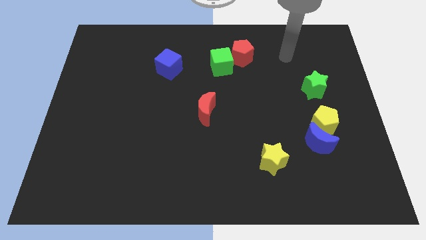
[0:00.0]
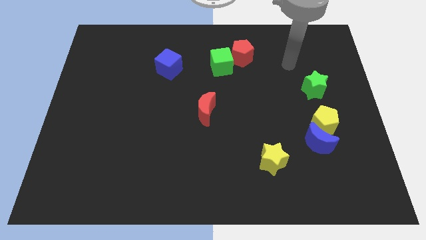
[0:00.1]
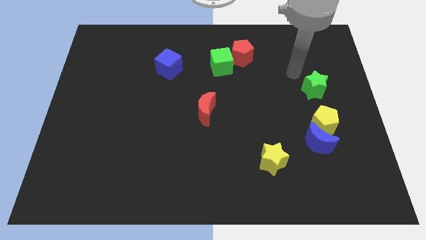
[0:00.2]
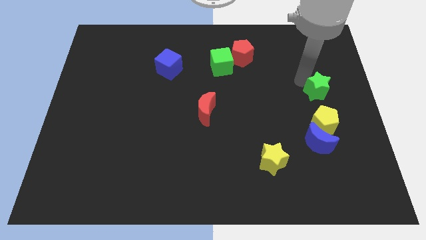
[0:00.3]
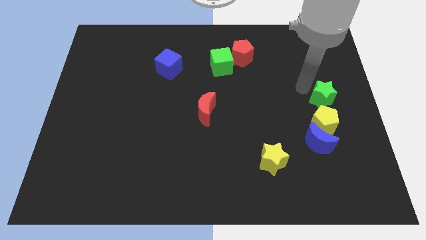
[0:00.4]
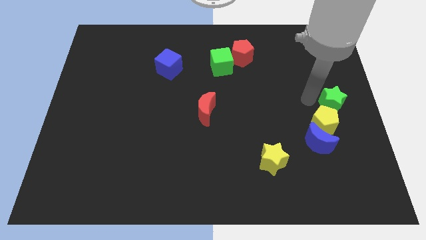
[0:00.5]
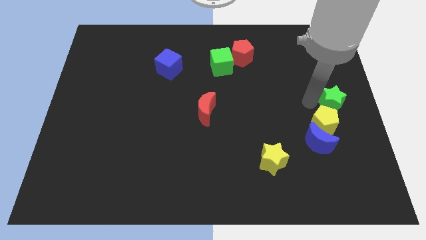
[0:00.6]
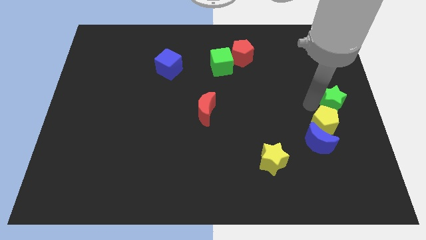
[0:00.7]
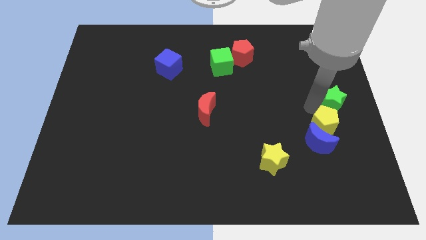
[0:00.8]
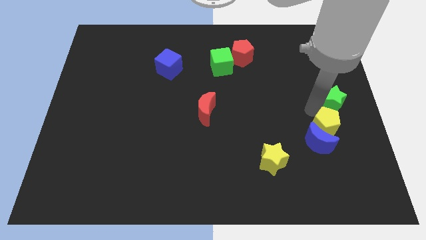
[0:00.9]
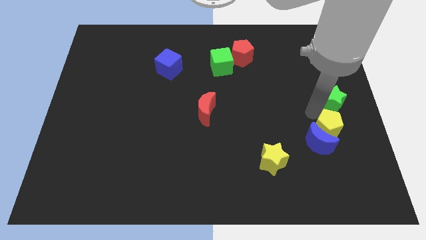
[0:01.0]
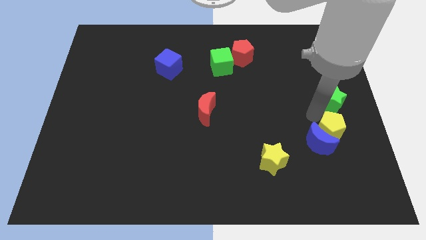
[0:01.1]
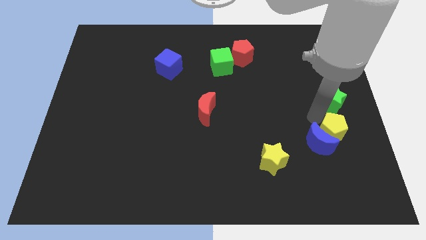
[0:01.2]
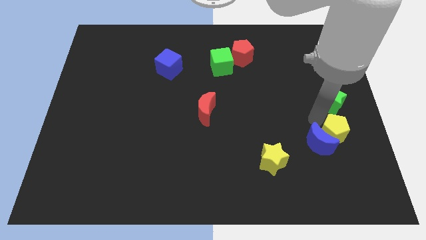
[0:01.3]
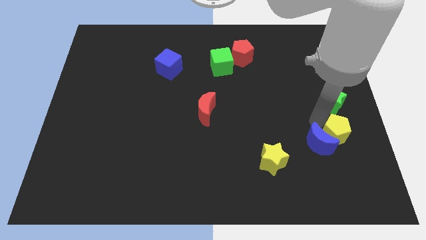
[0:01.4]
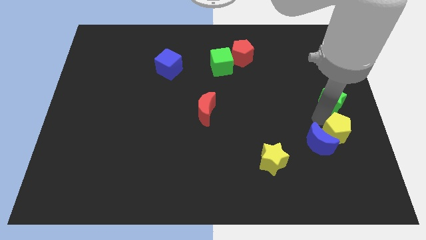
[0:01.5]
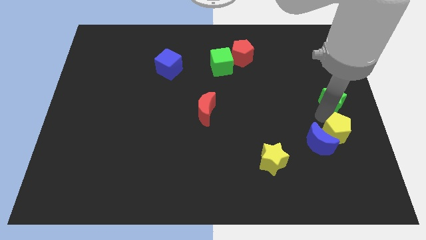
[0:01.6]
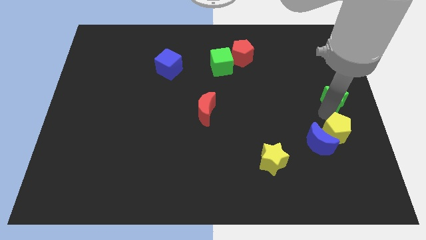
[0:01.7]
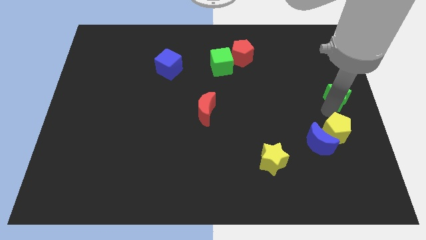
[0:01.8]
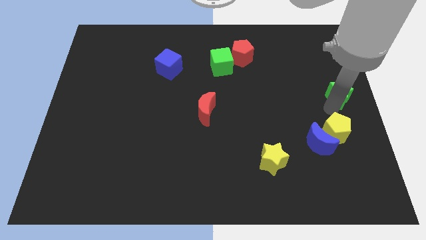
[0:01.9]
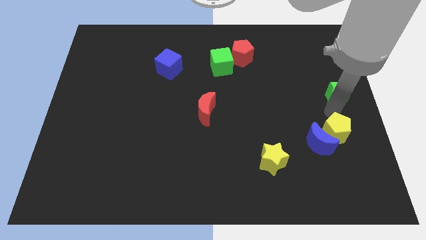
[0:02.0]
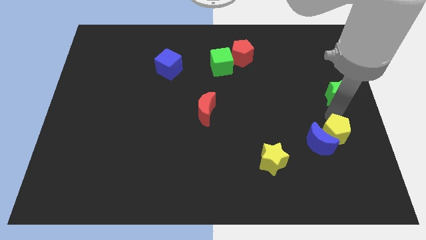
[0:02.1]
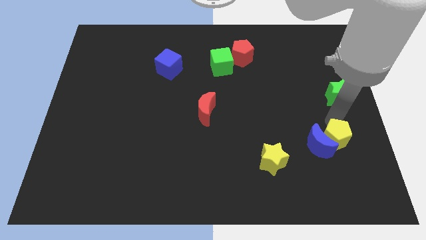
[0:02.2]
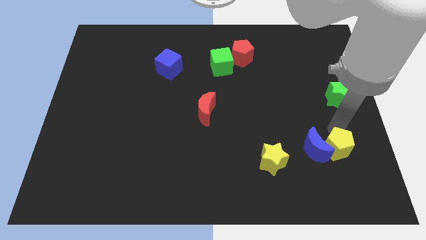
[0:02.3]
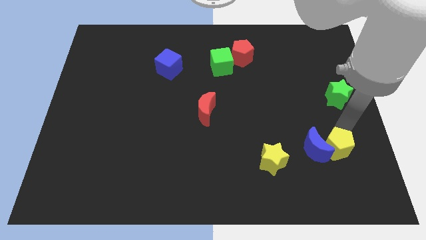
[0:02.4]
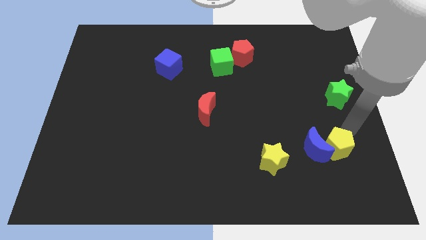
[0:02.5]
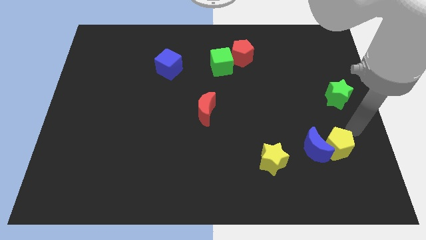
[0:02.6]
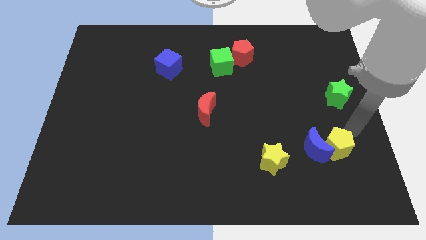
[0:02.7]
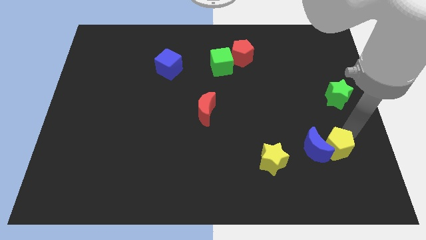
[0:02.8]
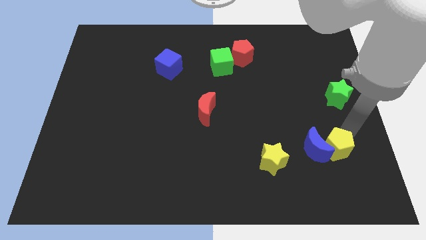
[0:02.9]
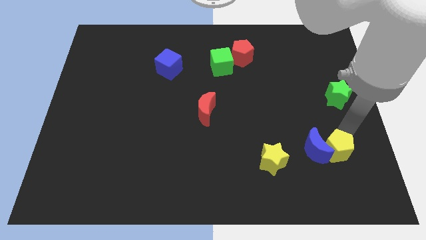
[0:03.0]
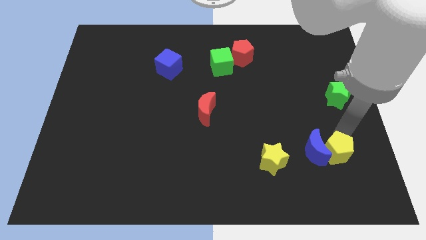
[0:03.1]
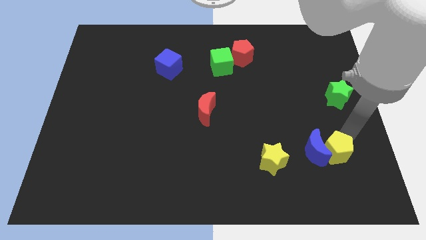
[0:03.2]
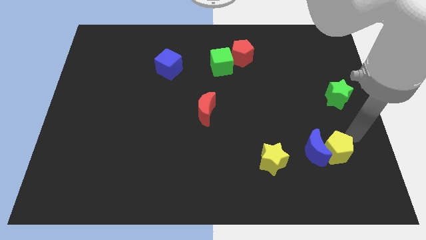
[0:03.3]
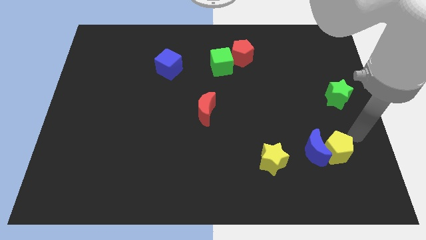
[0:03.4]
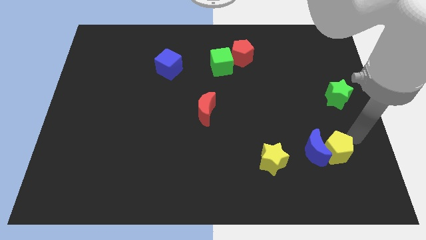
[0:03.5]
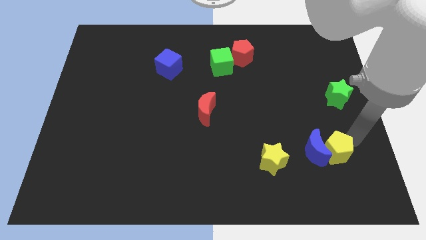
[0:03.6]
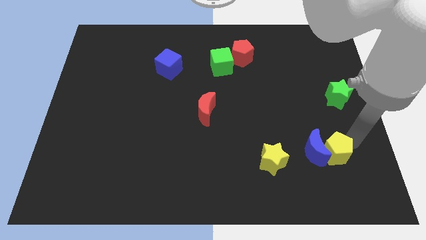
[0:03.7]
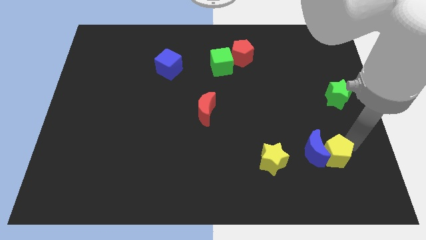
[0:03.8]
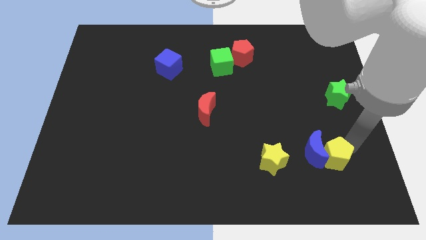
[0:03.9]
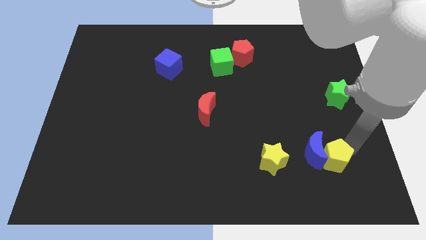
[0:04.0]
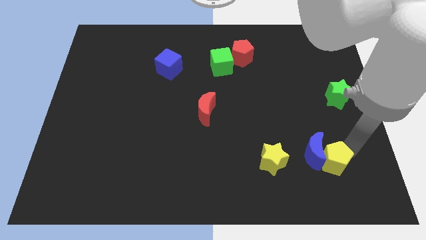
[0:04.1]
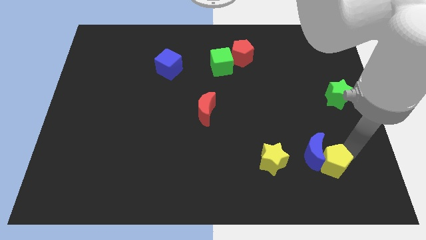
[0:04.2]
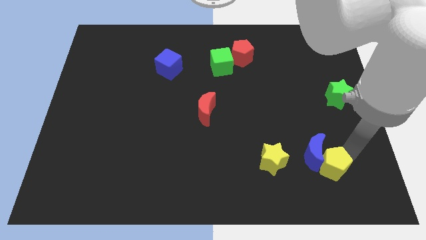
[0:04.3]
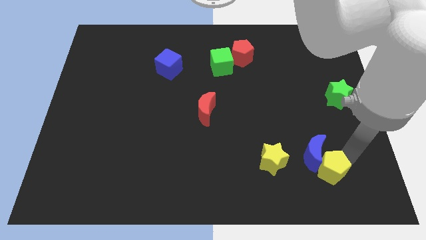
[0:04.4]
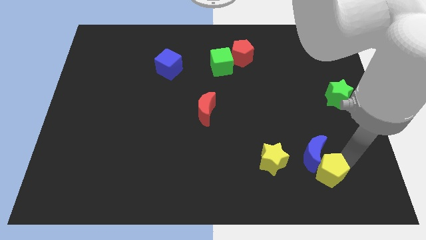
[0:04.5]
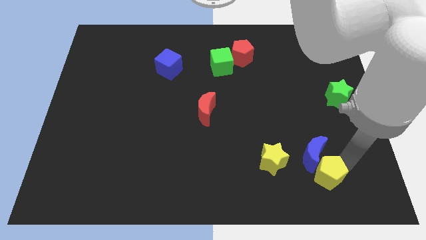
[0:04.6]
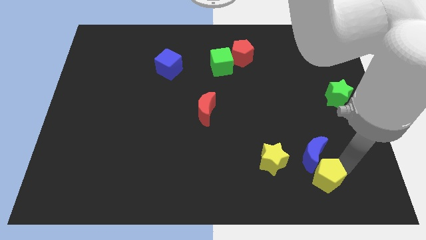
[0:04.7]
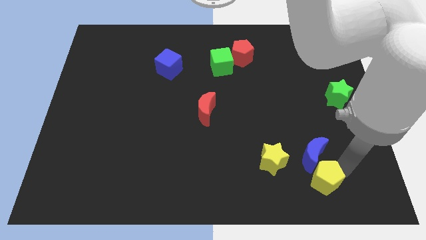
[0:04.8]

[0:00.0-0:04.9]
move the yellow pentagon to the bottom right of the yellow star

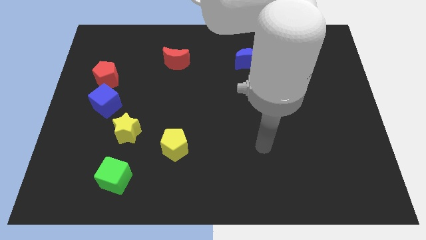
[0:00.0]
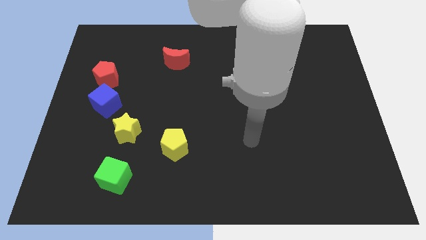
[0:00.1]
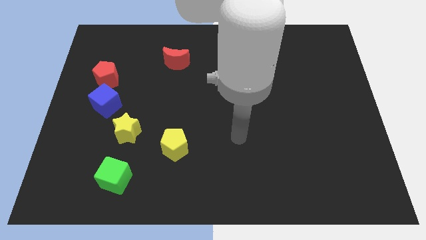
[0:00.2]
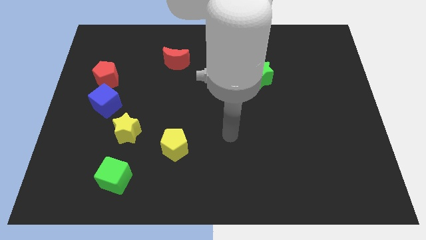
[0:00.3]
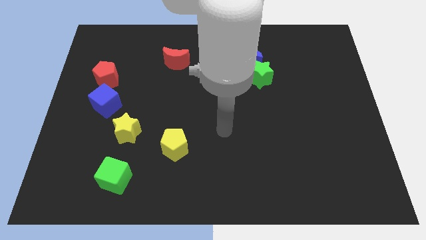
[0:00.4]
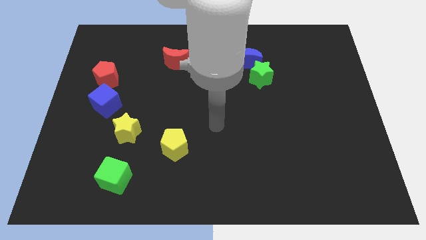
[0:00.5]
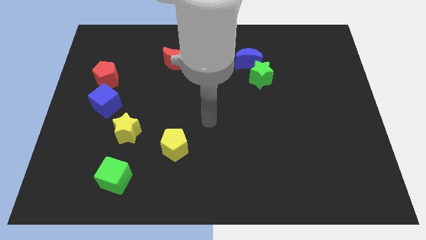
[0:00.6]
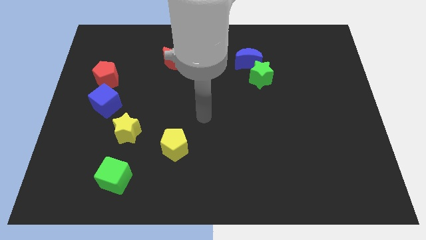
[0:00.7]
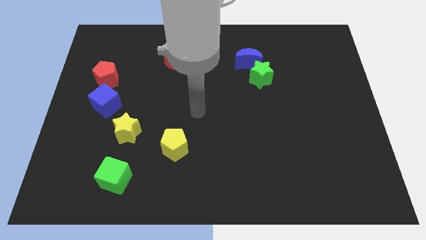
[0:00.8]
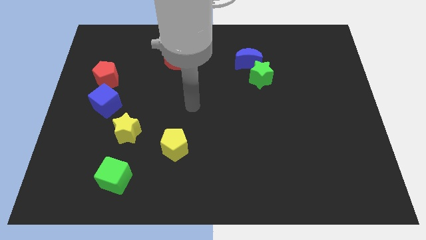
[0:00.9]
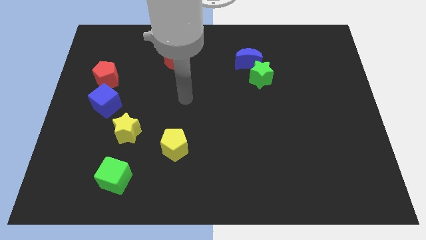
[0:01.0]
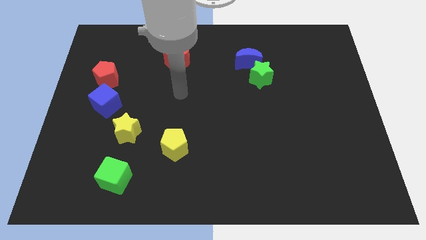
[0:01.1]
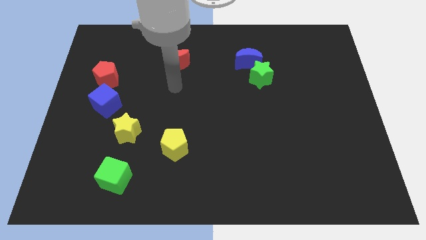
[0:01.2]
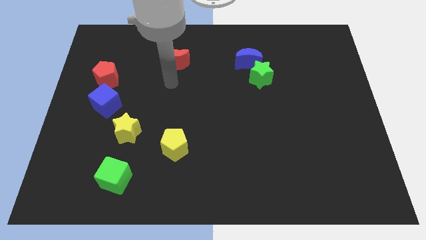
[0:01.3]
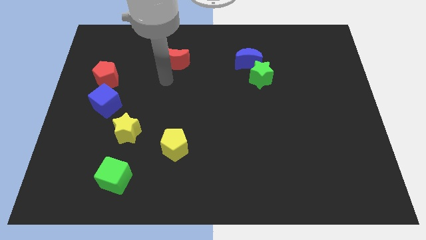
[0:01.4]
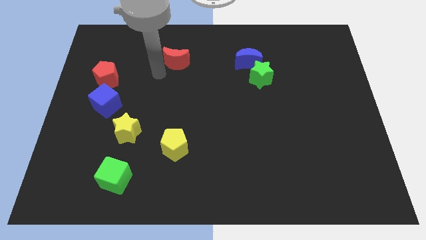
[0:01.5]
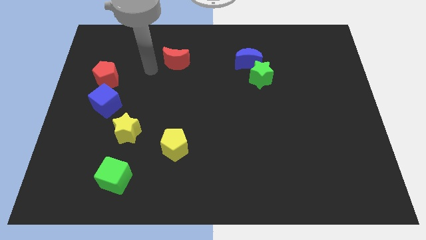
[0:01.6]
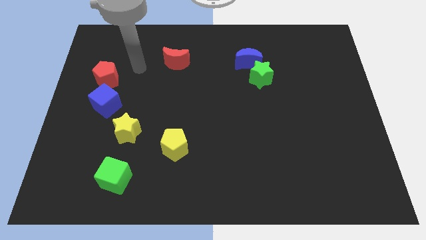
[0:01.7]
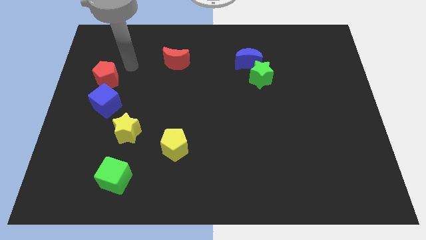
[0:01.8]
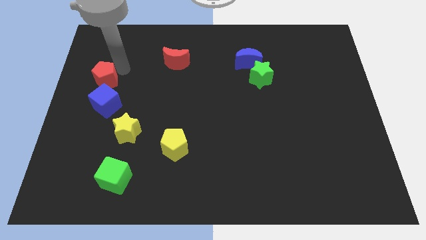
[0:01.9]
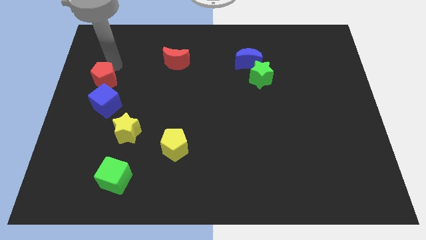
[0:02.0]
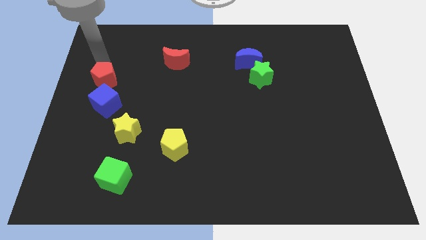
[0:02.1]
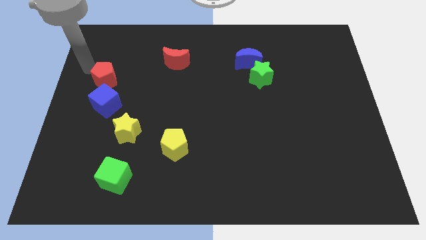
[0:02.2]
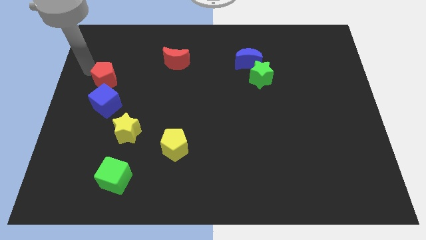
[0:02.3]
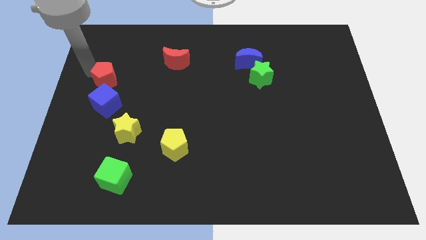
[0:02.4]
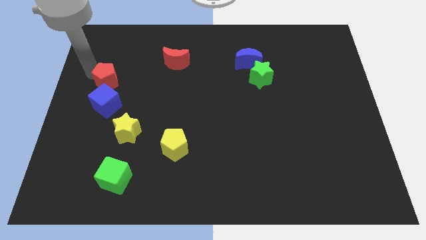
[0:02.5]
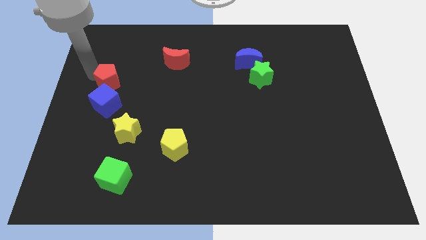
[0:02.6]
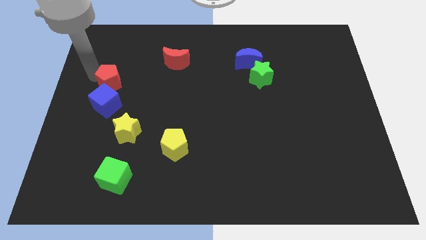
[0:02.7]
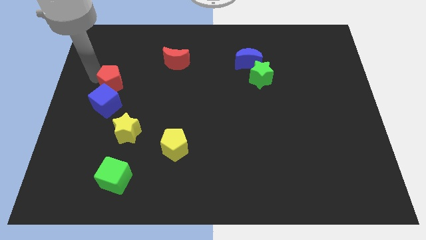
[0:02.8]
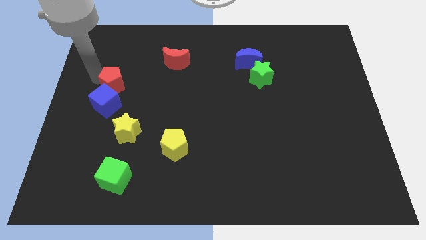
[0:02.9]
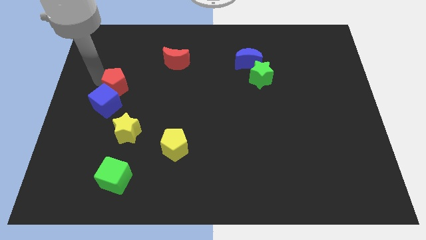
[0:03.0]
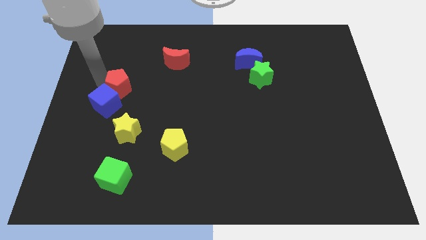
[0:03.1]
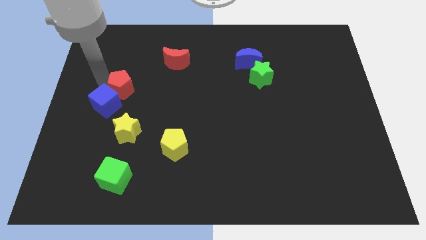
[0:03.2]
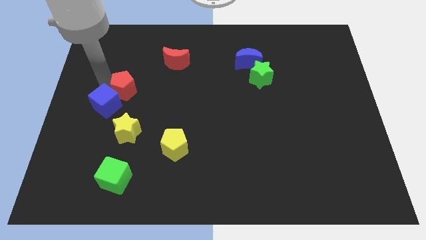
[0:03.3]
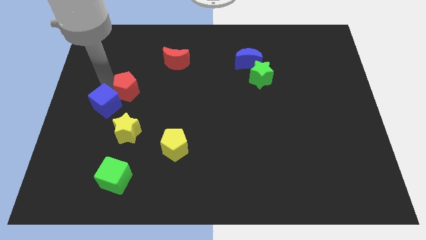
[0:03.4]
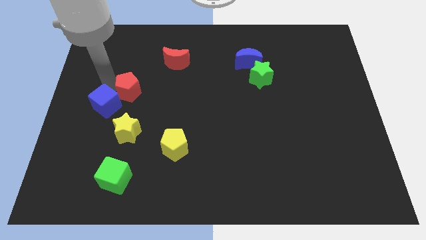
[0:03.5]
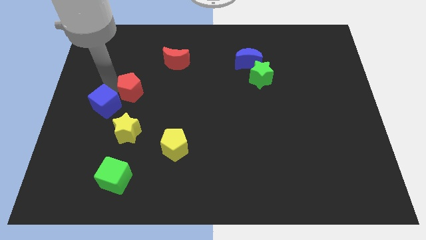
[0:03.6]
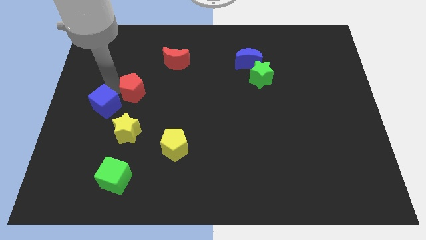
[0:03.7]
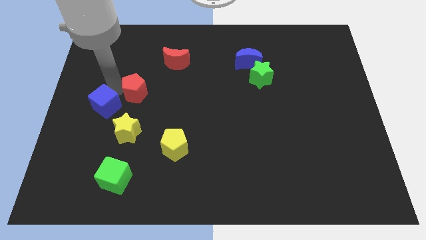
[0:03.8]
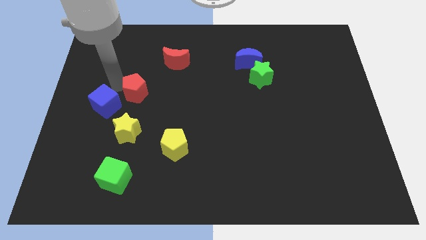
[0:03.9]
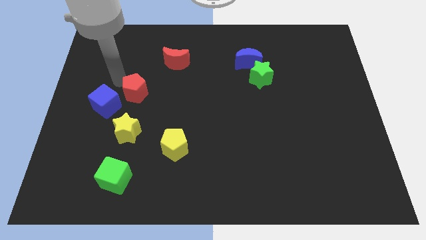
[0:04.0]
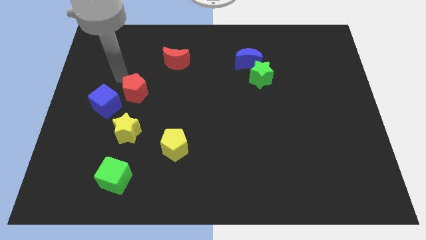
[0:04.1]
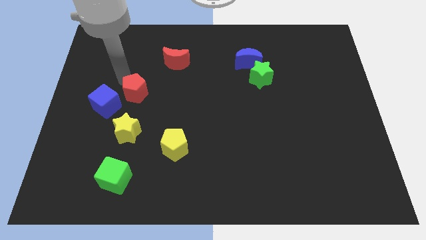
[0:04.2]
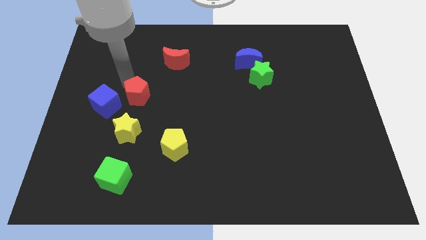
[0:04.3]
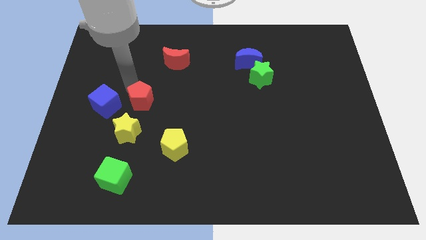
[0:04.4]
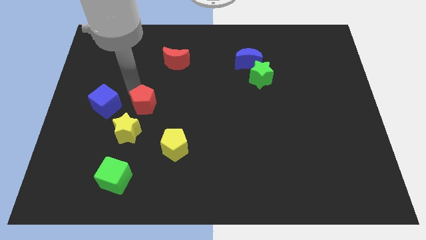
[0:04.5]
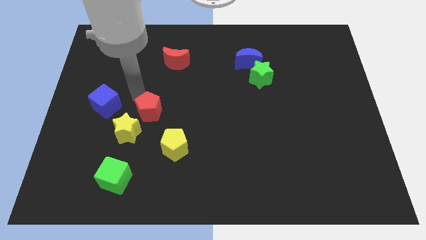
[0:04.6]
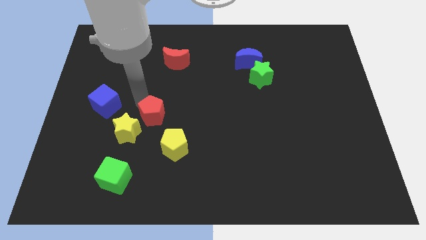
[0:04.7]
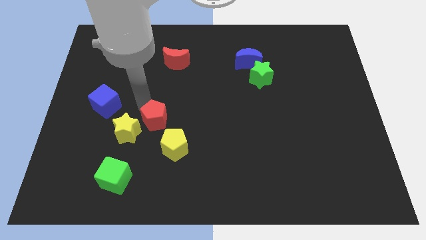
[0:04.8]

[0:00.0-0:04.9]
push the red pentagon right of the yellow star
